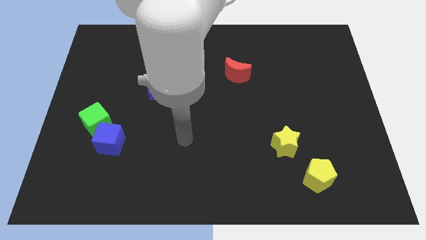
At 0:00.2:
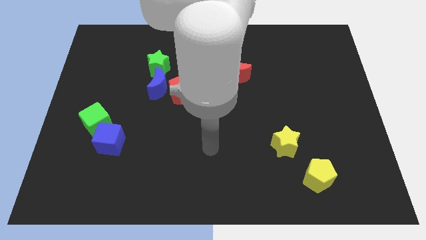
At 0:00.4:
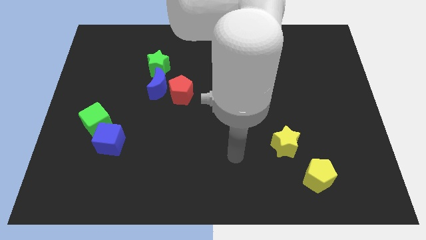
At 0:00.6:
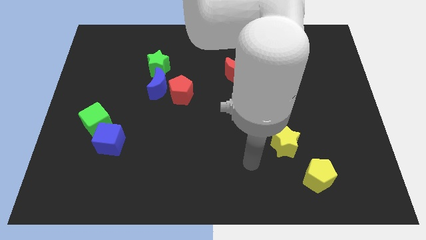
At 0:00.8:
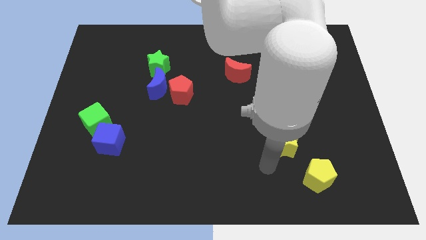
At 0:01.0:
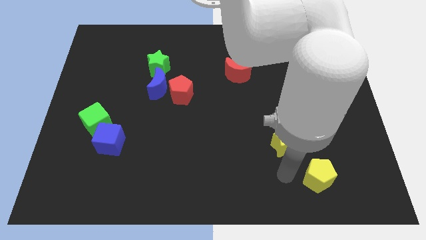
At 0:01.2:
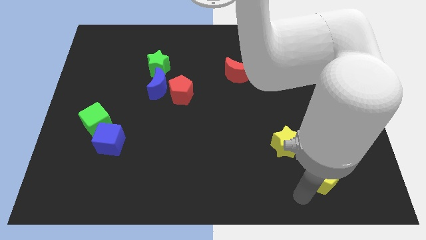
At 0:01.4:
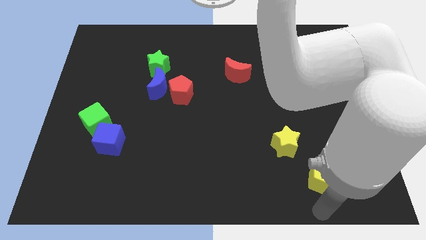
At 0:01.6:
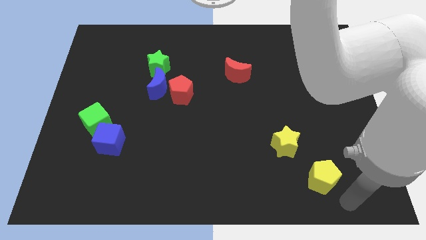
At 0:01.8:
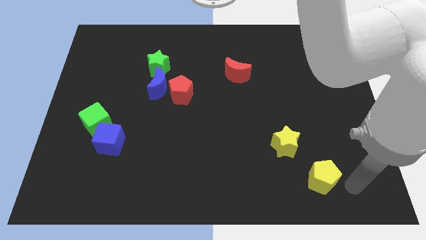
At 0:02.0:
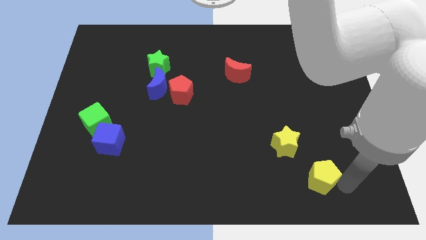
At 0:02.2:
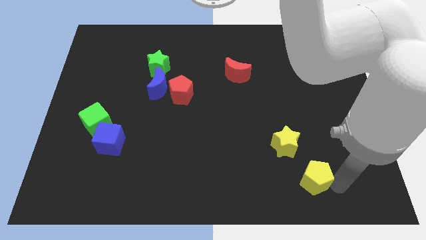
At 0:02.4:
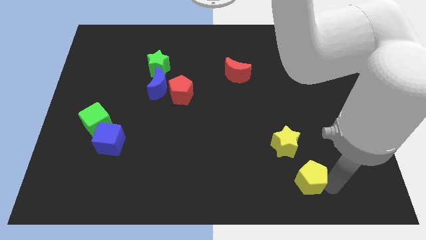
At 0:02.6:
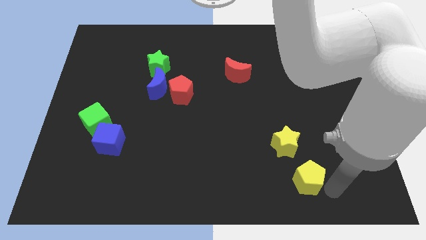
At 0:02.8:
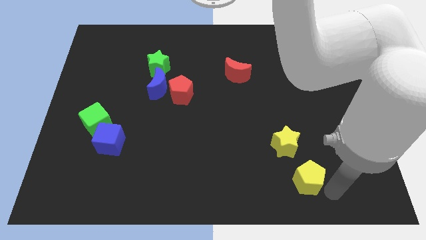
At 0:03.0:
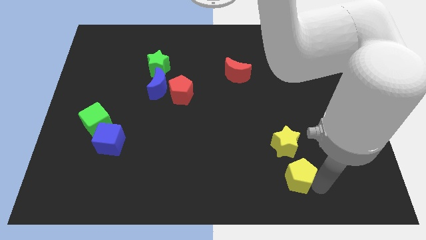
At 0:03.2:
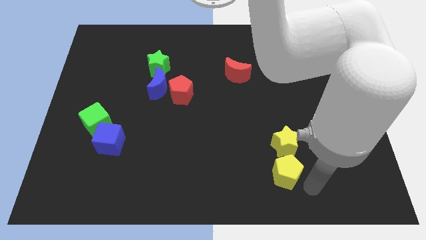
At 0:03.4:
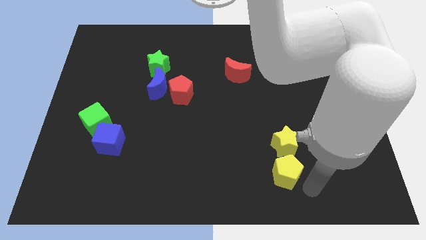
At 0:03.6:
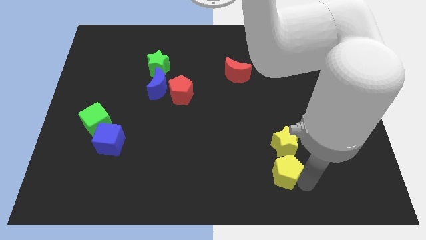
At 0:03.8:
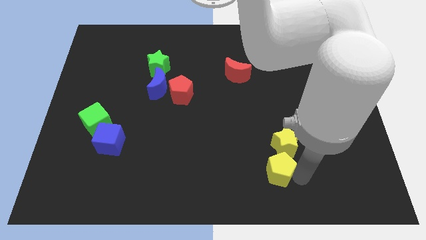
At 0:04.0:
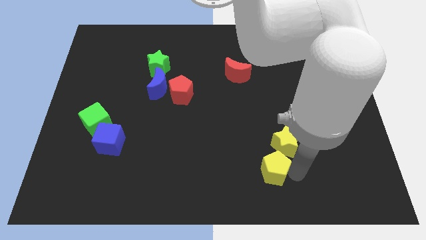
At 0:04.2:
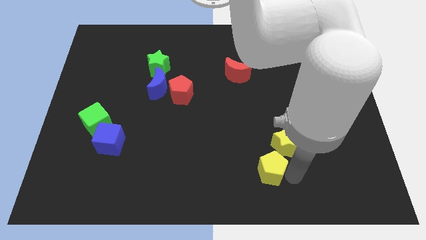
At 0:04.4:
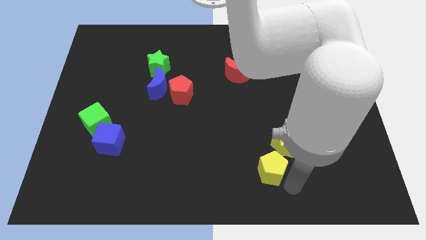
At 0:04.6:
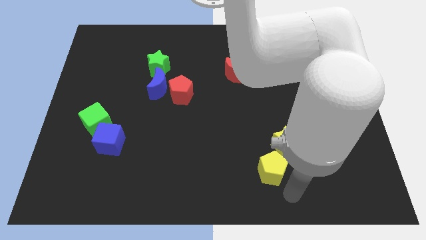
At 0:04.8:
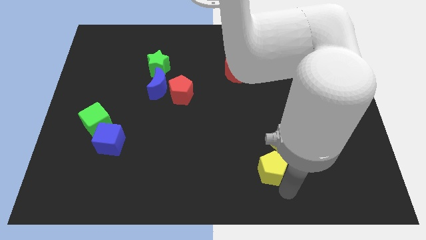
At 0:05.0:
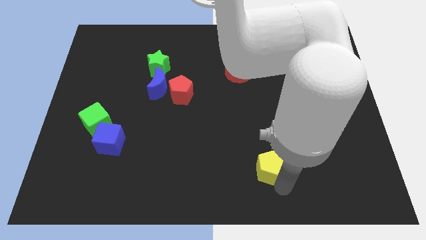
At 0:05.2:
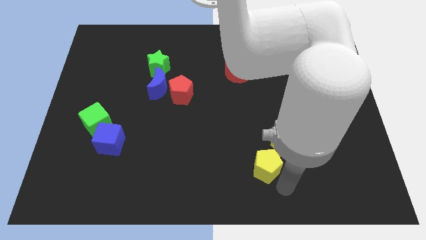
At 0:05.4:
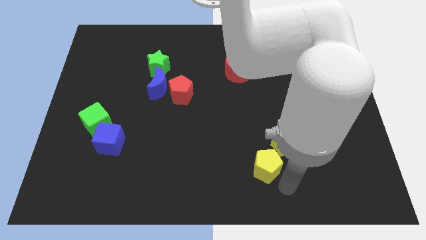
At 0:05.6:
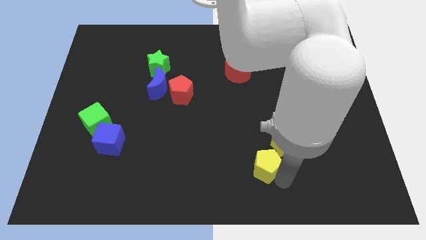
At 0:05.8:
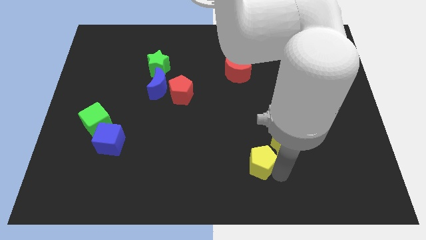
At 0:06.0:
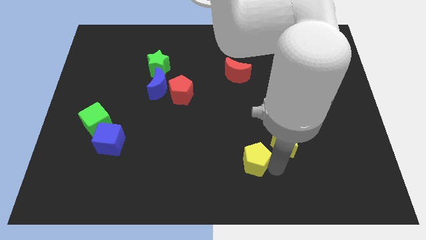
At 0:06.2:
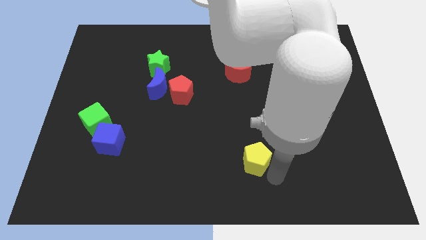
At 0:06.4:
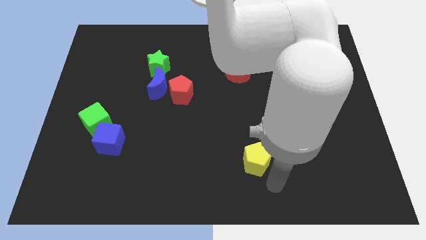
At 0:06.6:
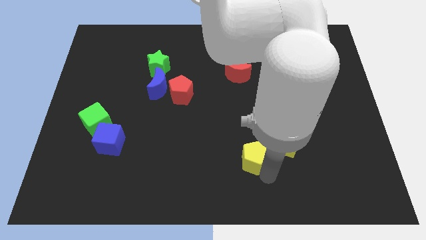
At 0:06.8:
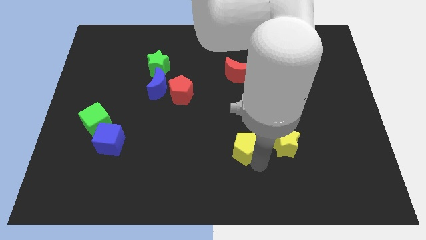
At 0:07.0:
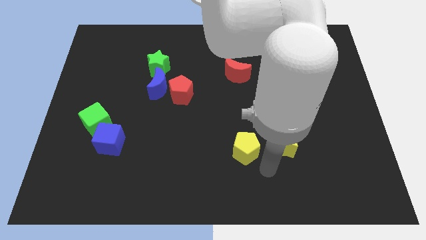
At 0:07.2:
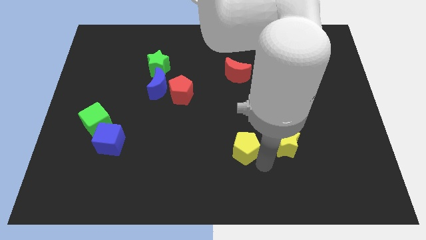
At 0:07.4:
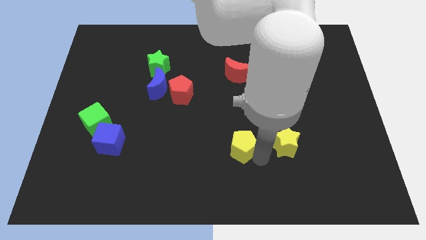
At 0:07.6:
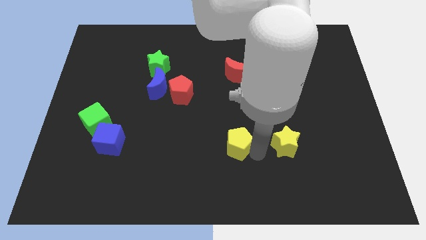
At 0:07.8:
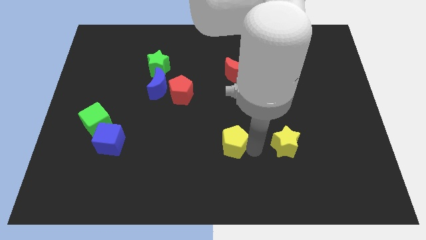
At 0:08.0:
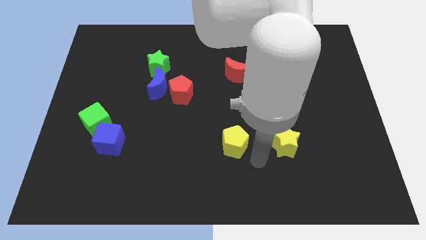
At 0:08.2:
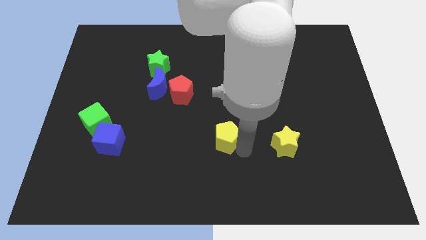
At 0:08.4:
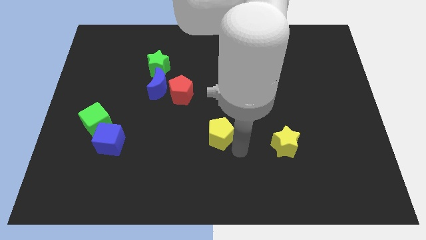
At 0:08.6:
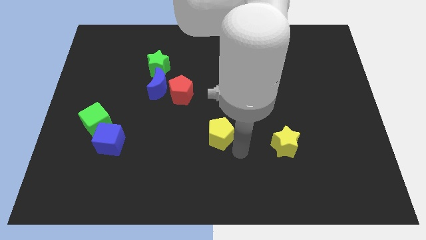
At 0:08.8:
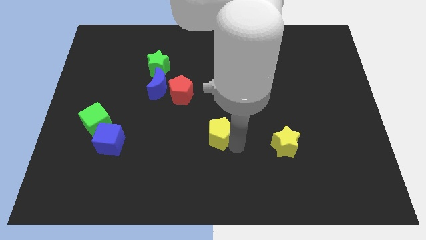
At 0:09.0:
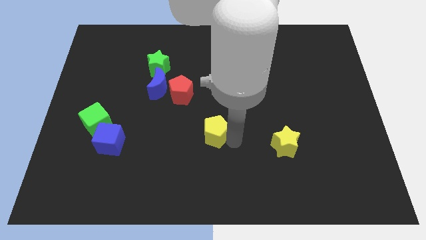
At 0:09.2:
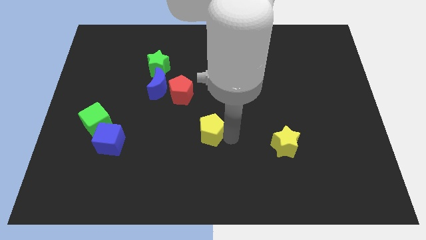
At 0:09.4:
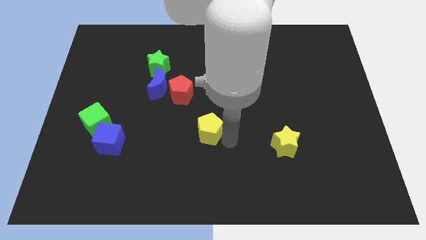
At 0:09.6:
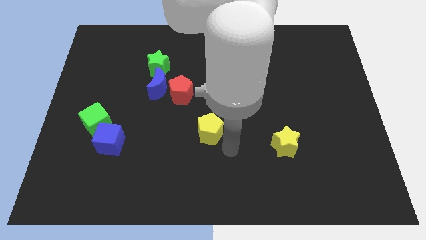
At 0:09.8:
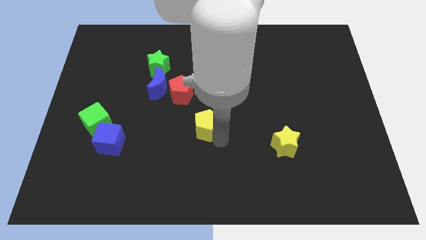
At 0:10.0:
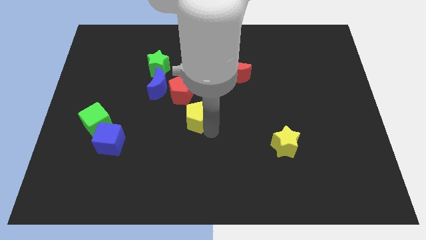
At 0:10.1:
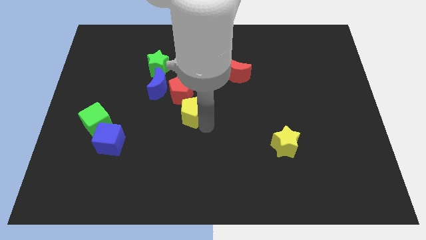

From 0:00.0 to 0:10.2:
push the yellow pentagon to the bottom right side of the blue moon

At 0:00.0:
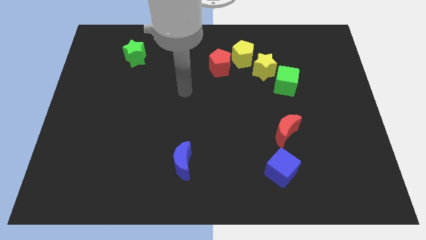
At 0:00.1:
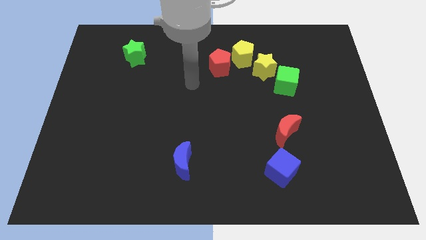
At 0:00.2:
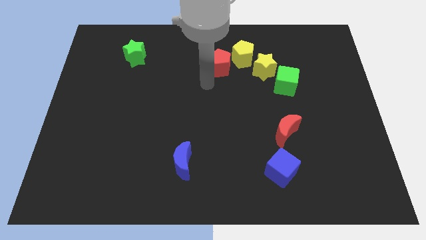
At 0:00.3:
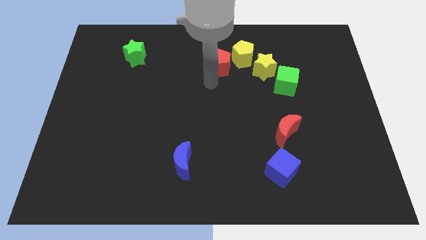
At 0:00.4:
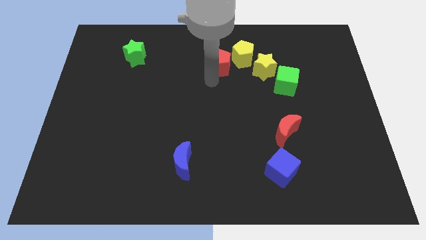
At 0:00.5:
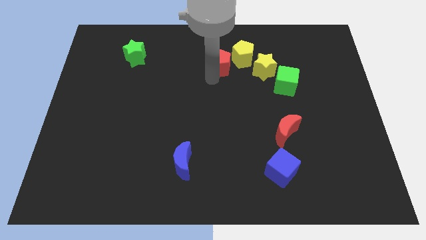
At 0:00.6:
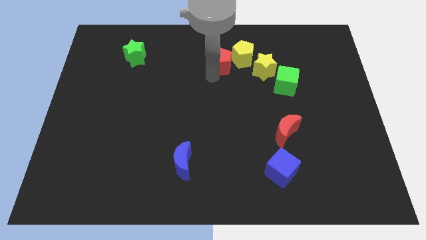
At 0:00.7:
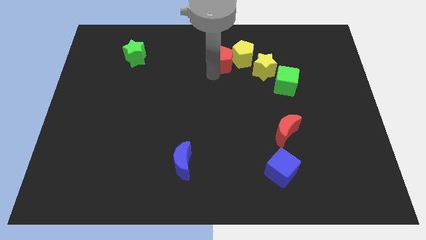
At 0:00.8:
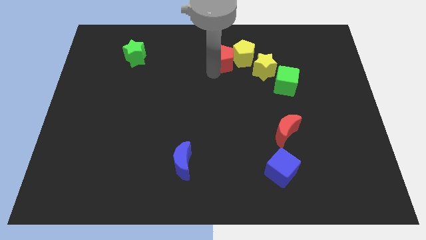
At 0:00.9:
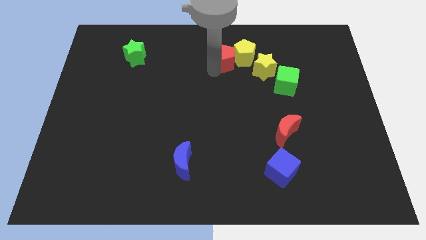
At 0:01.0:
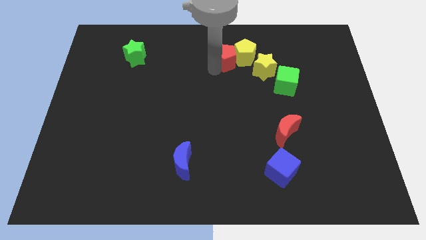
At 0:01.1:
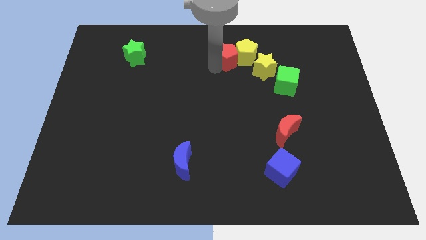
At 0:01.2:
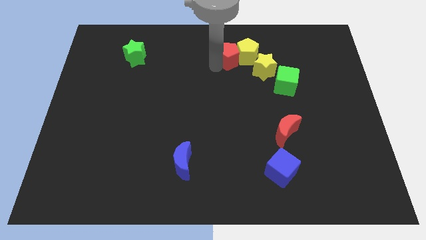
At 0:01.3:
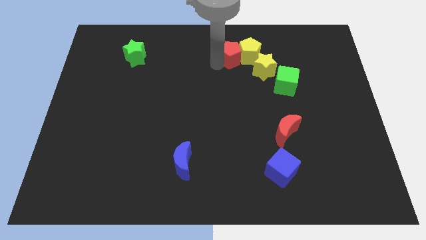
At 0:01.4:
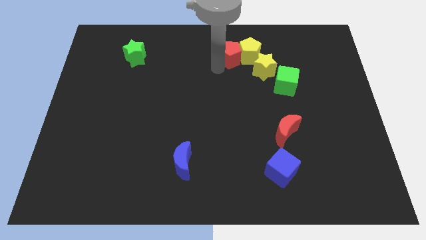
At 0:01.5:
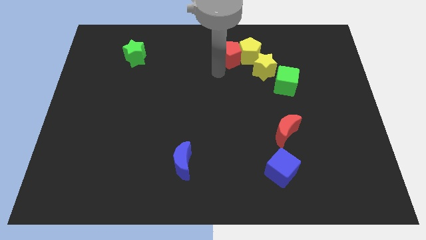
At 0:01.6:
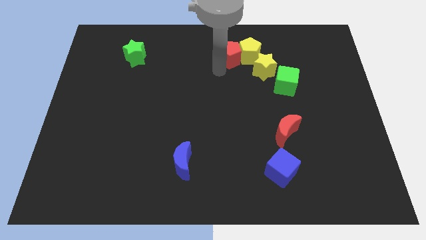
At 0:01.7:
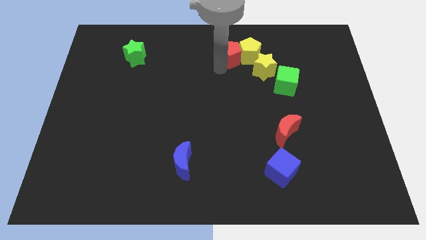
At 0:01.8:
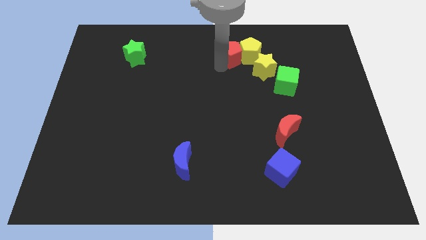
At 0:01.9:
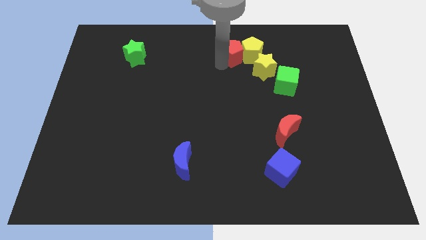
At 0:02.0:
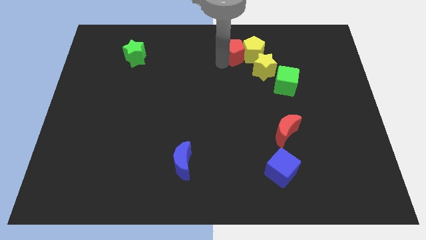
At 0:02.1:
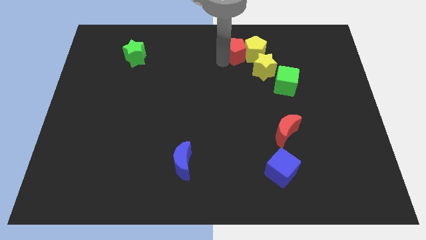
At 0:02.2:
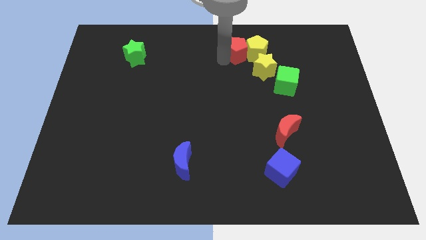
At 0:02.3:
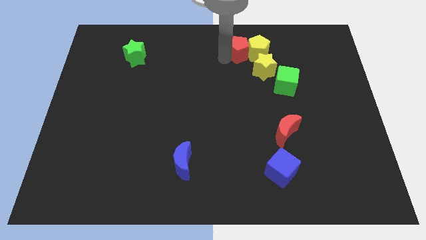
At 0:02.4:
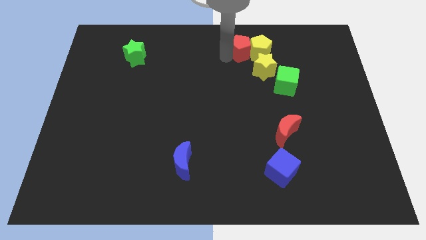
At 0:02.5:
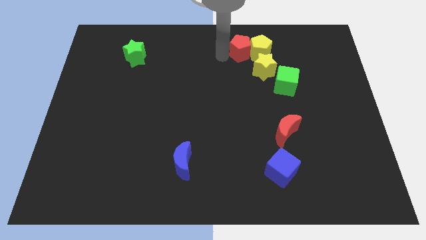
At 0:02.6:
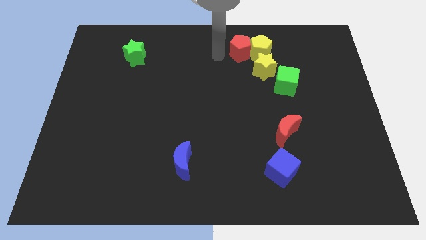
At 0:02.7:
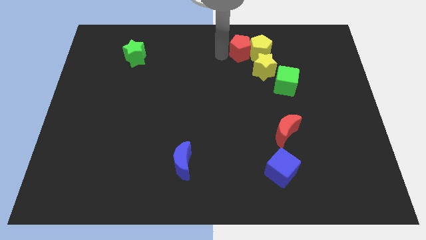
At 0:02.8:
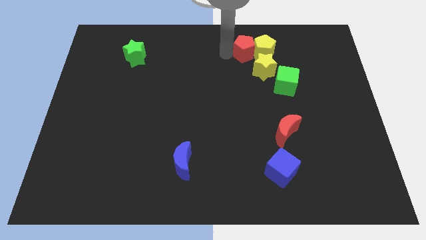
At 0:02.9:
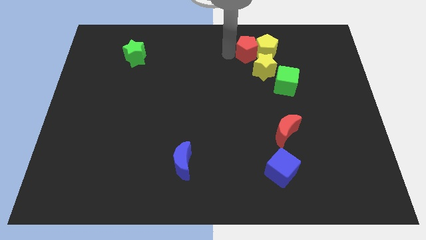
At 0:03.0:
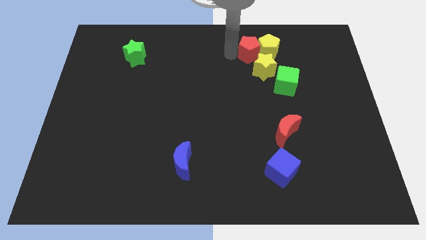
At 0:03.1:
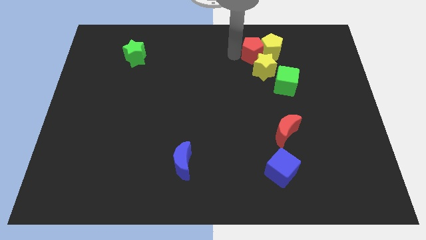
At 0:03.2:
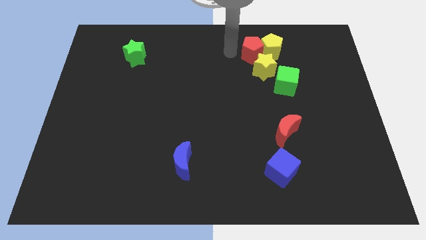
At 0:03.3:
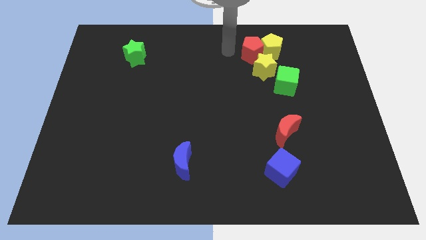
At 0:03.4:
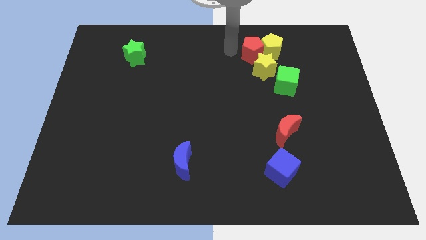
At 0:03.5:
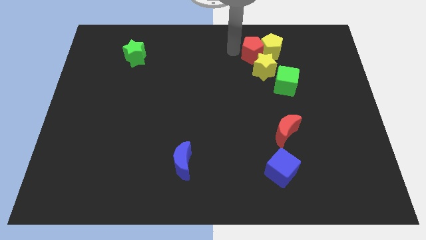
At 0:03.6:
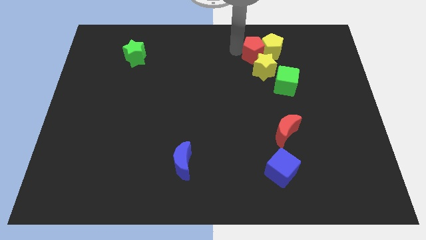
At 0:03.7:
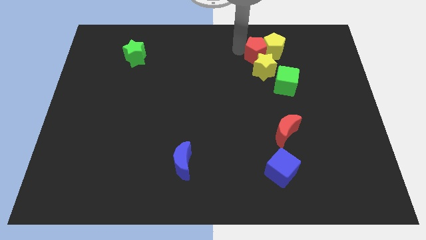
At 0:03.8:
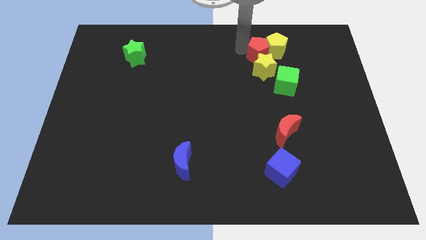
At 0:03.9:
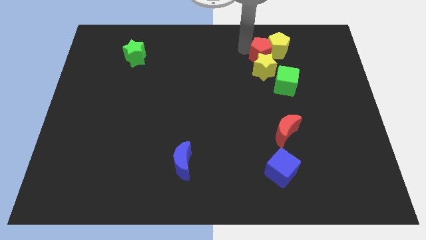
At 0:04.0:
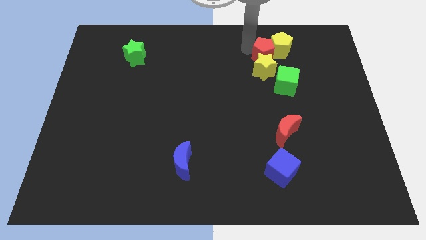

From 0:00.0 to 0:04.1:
push the red pentagon above the green cube
